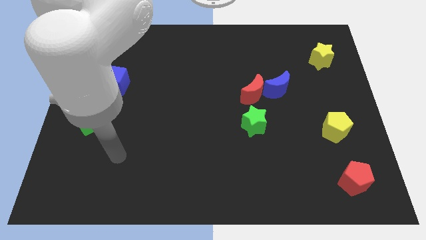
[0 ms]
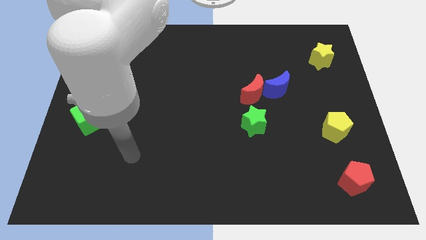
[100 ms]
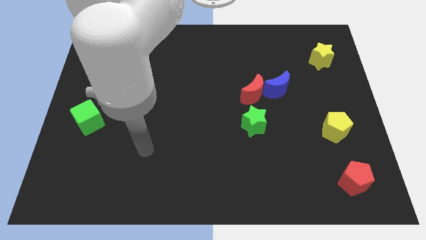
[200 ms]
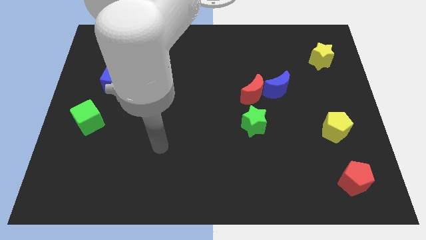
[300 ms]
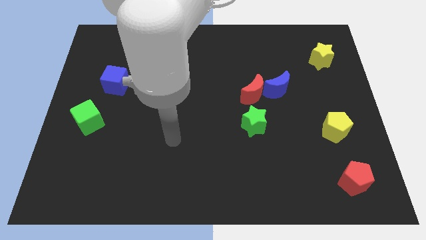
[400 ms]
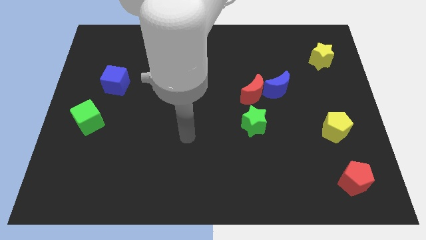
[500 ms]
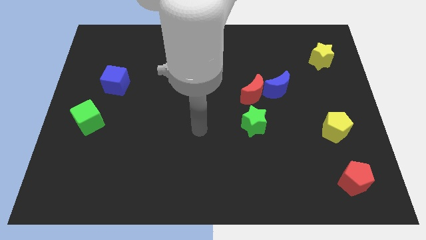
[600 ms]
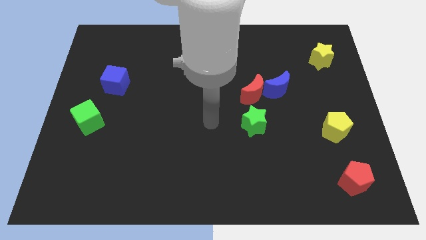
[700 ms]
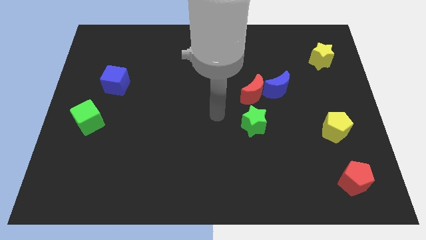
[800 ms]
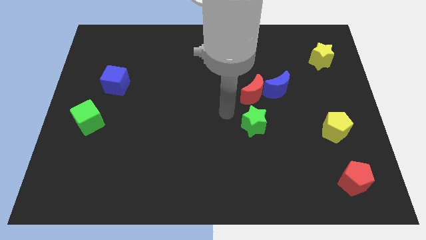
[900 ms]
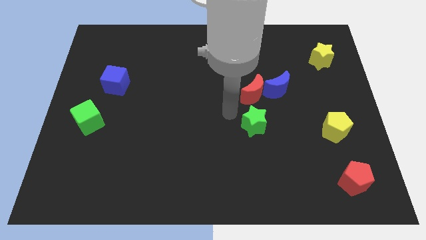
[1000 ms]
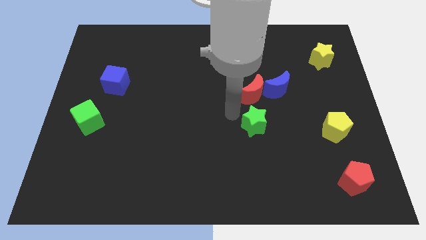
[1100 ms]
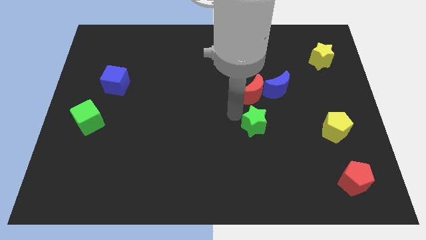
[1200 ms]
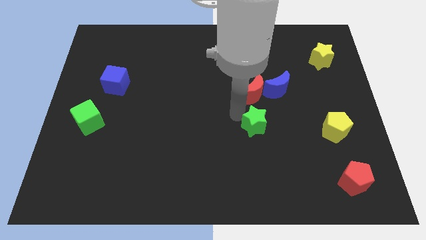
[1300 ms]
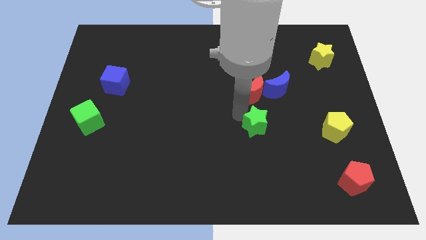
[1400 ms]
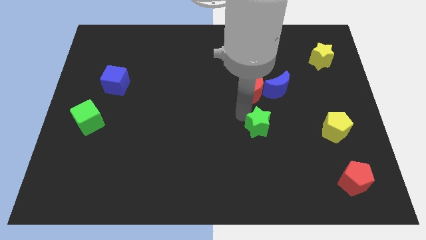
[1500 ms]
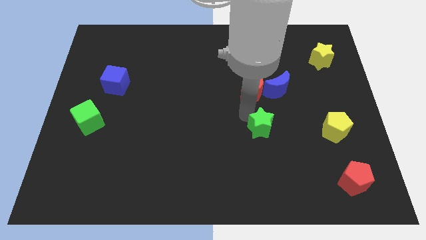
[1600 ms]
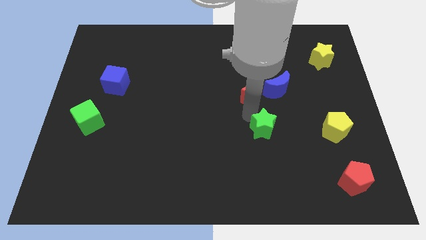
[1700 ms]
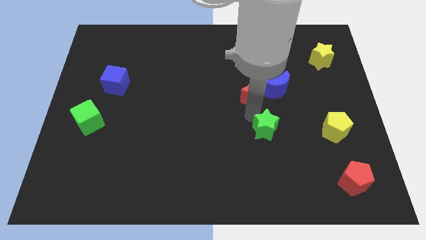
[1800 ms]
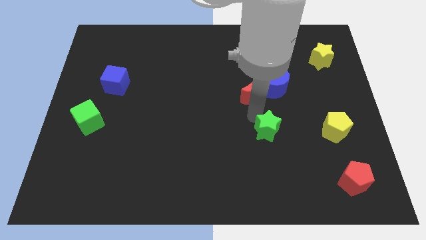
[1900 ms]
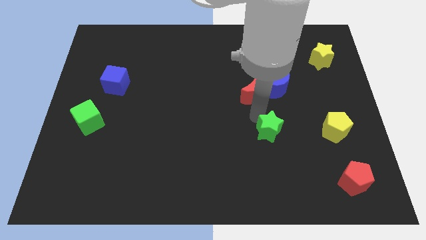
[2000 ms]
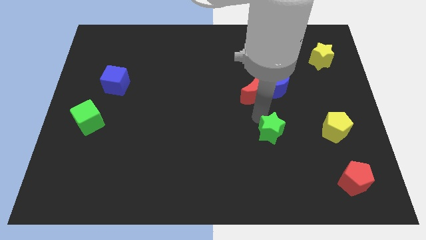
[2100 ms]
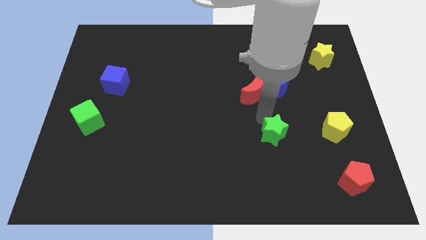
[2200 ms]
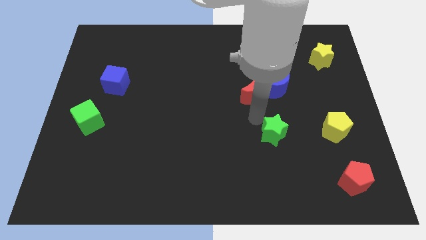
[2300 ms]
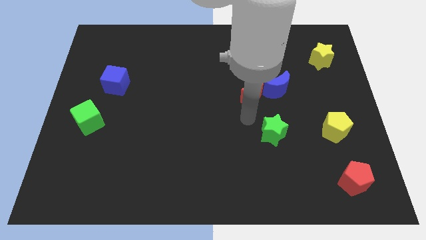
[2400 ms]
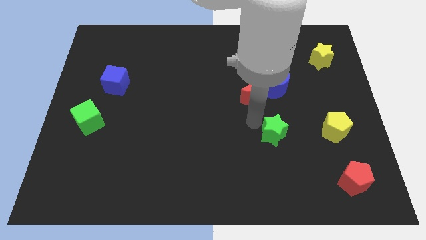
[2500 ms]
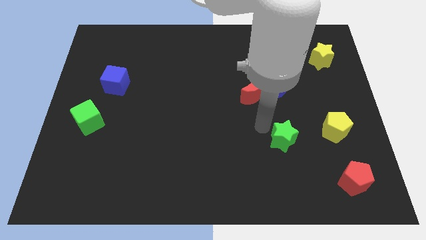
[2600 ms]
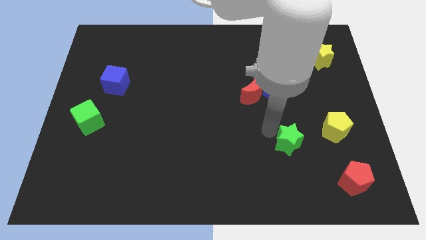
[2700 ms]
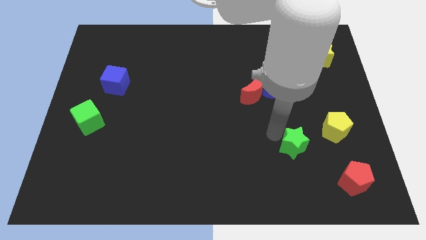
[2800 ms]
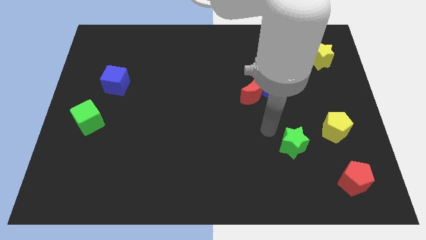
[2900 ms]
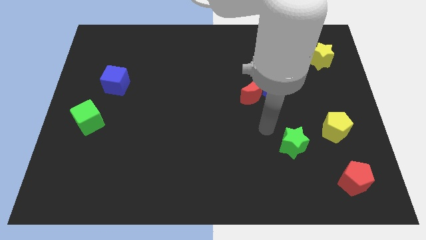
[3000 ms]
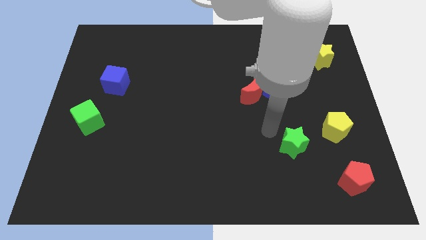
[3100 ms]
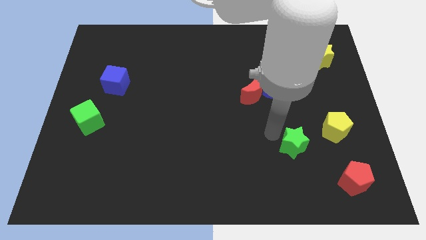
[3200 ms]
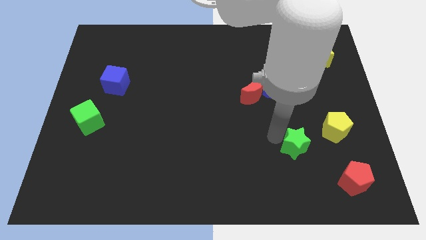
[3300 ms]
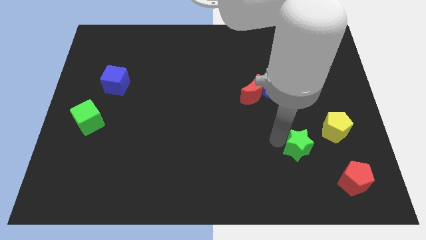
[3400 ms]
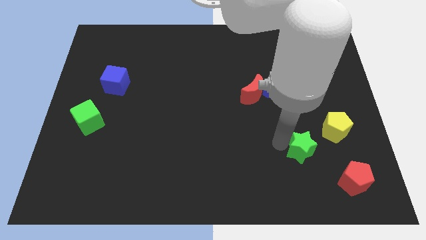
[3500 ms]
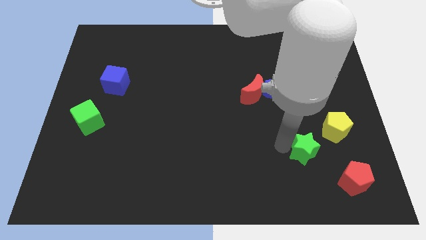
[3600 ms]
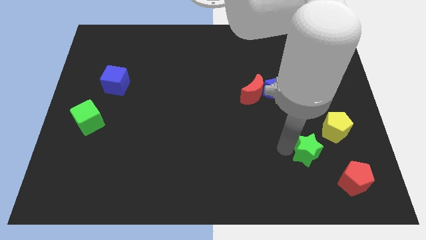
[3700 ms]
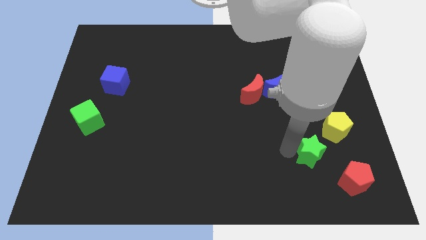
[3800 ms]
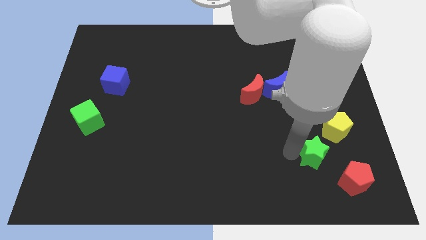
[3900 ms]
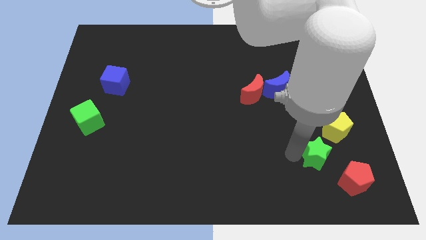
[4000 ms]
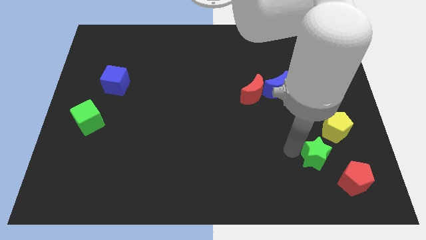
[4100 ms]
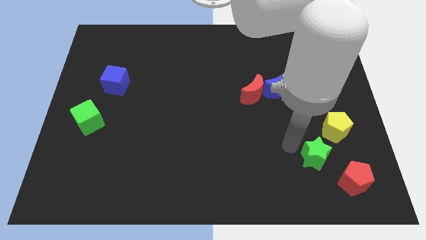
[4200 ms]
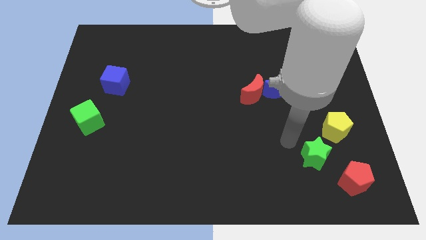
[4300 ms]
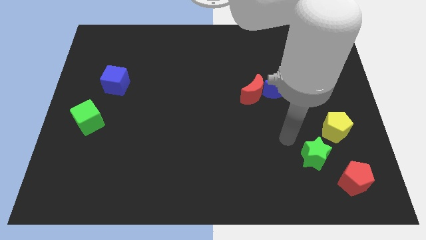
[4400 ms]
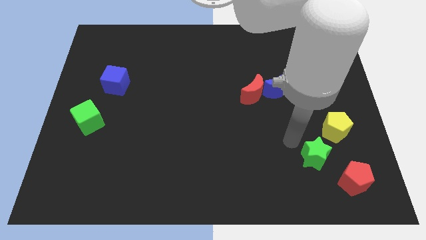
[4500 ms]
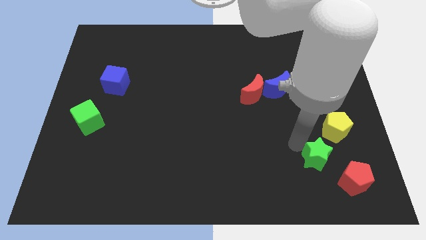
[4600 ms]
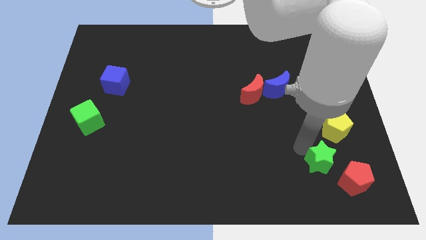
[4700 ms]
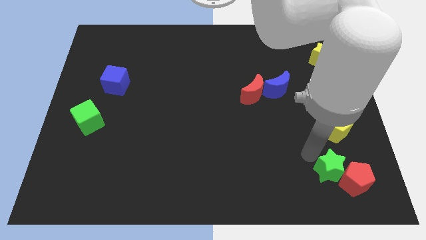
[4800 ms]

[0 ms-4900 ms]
move the green star next to the red pentagon

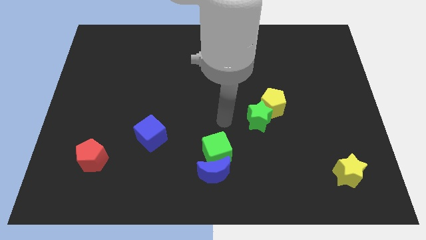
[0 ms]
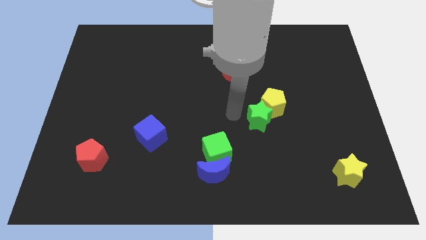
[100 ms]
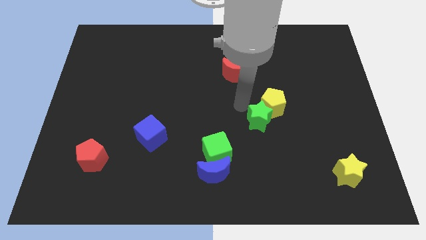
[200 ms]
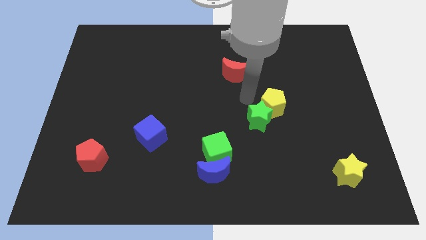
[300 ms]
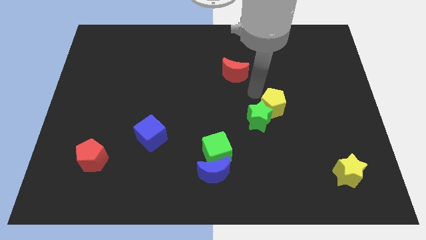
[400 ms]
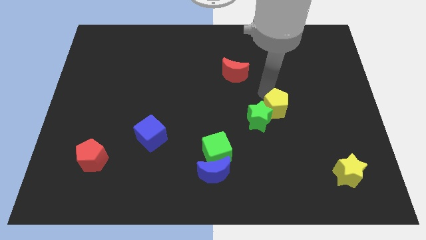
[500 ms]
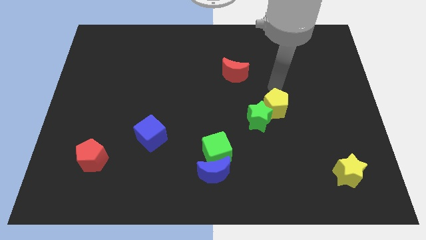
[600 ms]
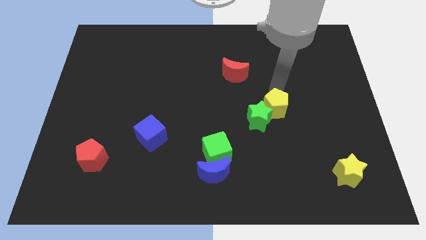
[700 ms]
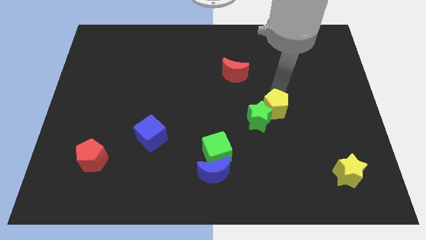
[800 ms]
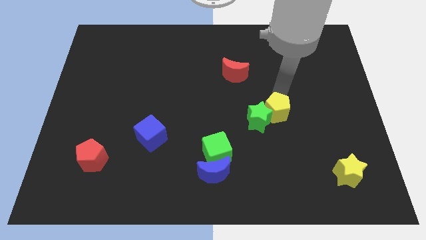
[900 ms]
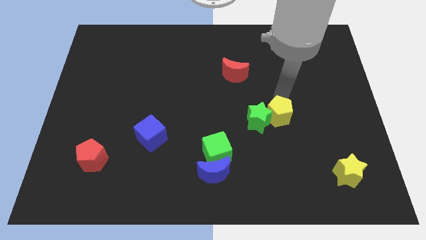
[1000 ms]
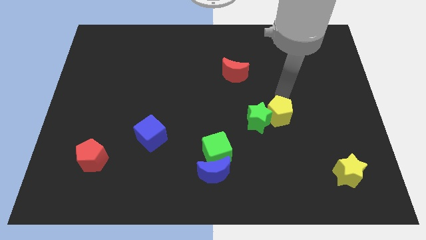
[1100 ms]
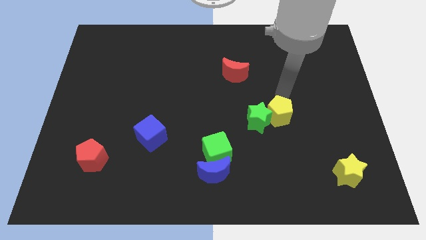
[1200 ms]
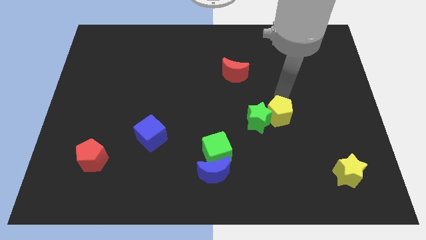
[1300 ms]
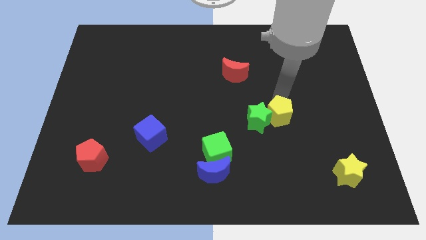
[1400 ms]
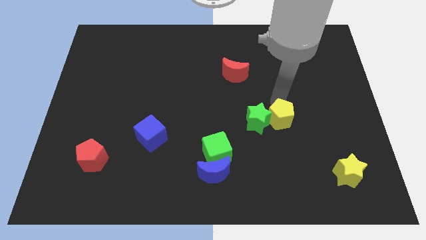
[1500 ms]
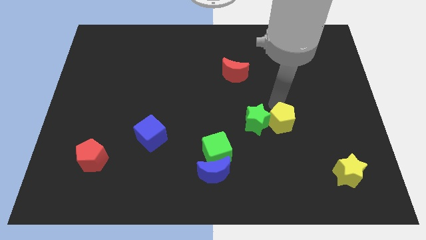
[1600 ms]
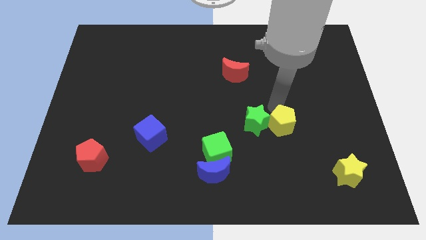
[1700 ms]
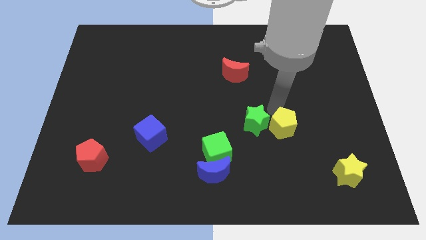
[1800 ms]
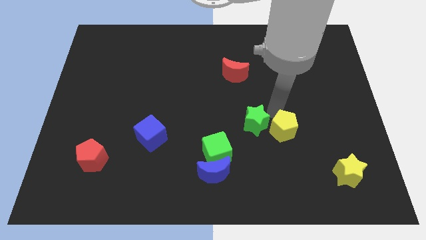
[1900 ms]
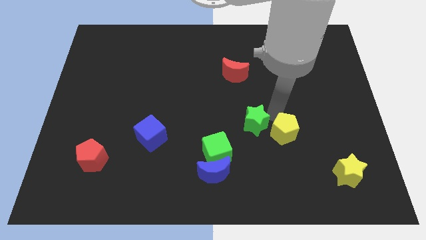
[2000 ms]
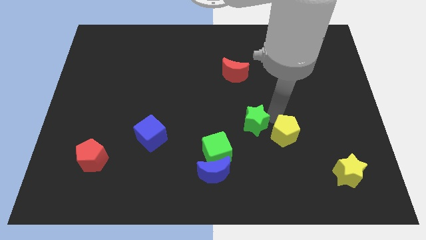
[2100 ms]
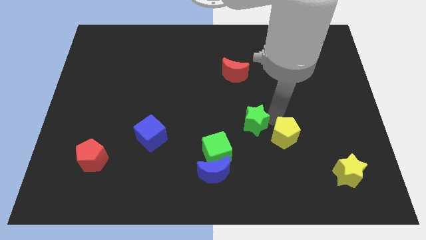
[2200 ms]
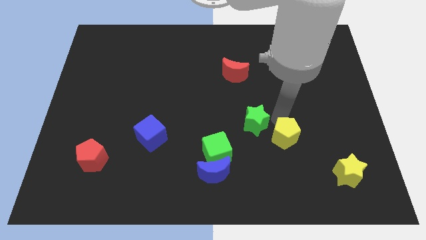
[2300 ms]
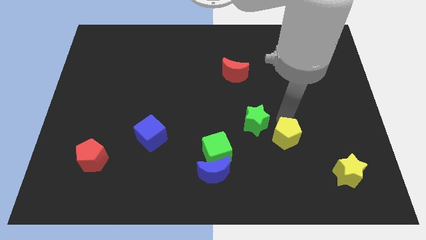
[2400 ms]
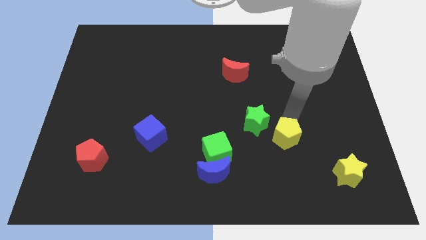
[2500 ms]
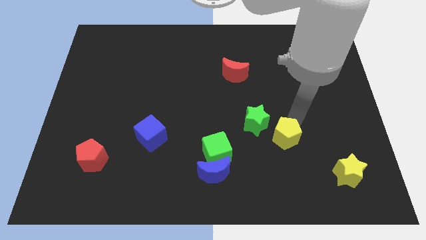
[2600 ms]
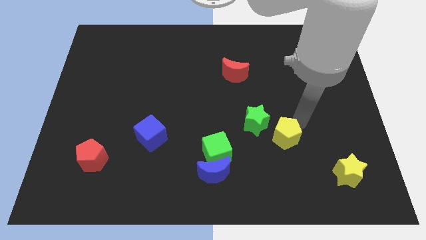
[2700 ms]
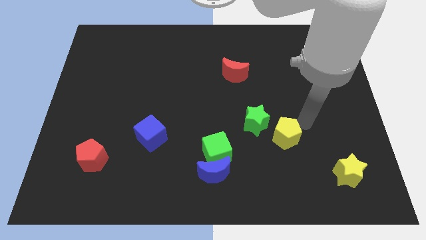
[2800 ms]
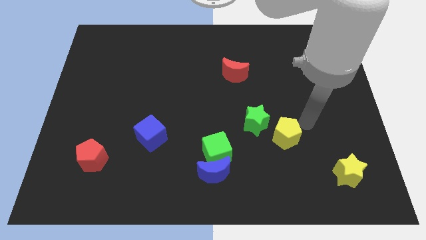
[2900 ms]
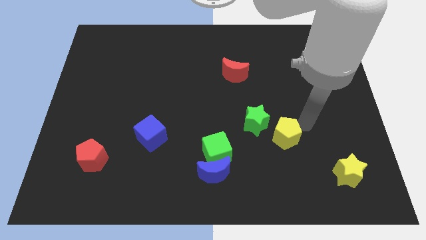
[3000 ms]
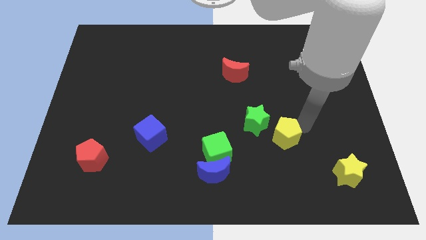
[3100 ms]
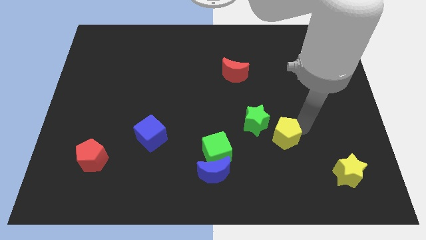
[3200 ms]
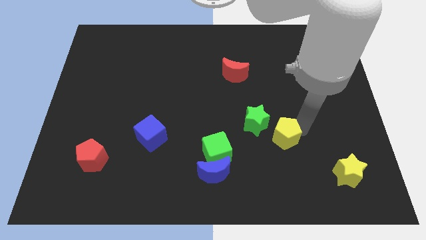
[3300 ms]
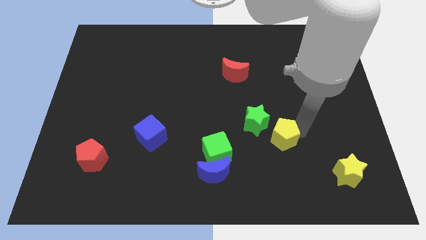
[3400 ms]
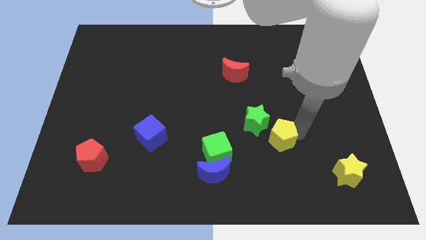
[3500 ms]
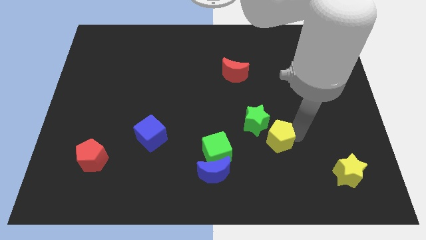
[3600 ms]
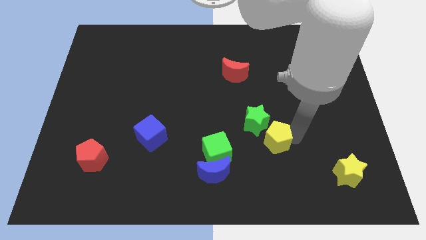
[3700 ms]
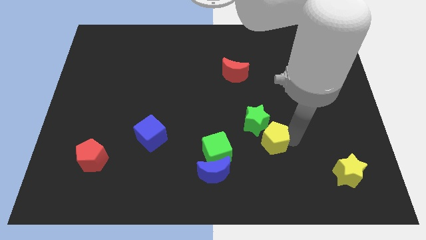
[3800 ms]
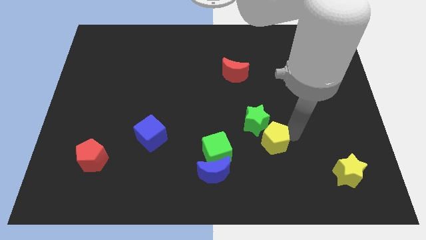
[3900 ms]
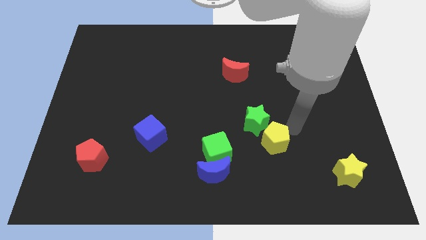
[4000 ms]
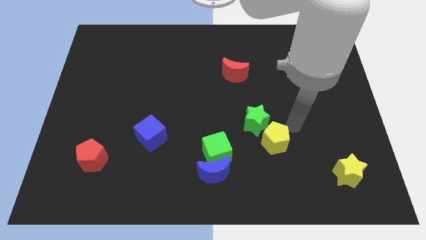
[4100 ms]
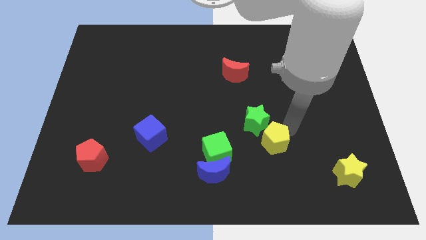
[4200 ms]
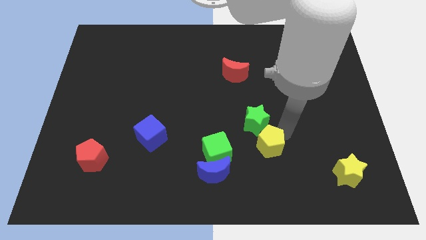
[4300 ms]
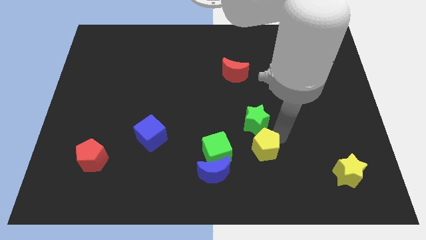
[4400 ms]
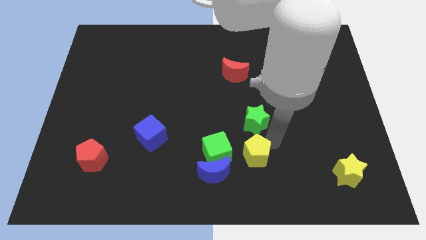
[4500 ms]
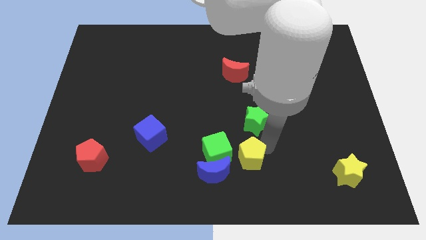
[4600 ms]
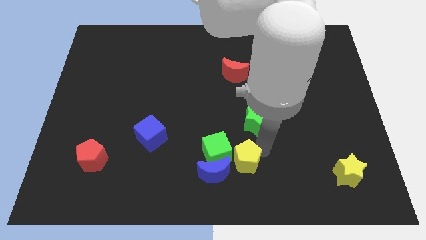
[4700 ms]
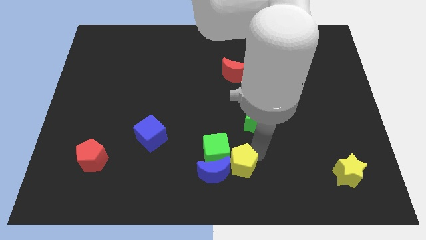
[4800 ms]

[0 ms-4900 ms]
push the yellow pentagon close to the blue moon
